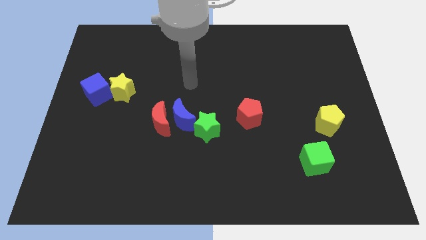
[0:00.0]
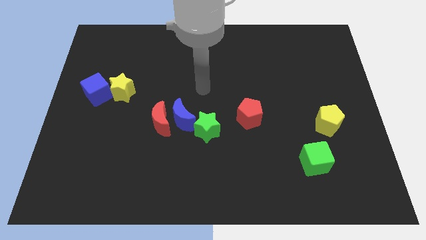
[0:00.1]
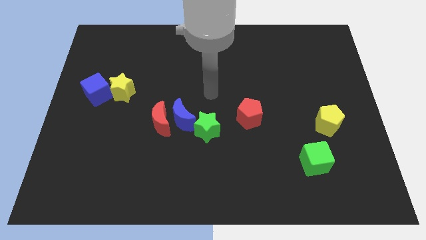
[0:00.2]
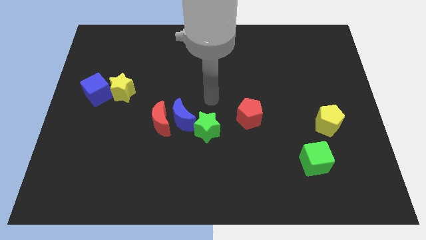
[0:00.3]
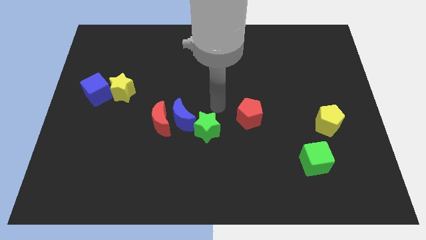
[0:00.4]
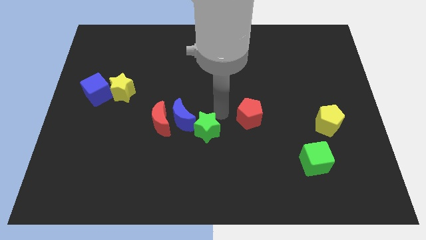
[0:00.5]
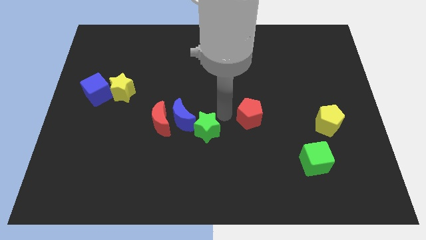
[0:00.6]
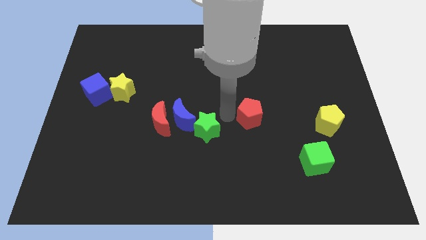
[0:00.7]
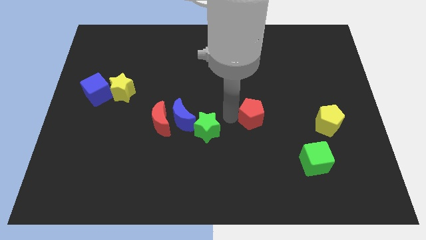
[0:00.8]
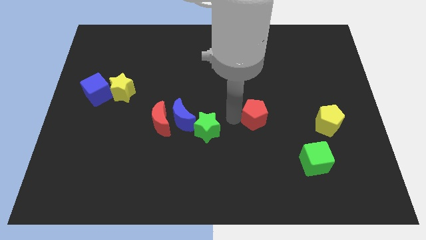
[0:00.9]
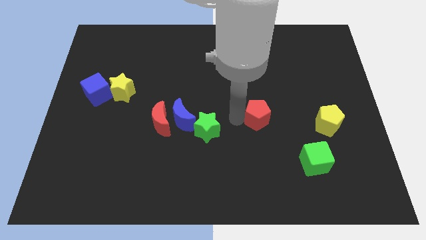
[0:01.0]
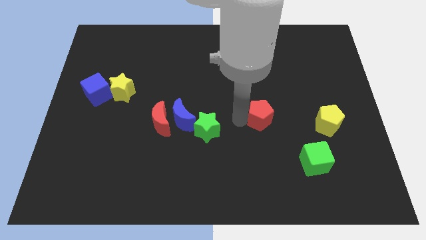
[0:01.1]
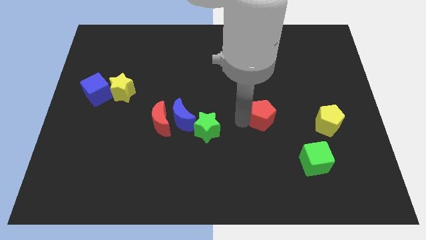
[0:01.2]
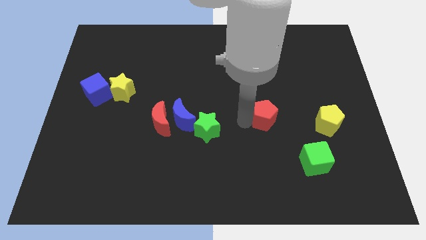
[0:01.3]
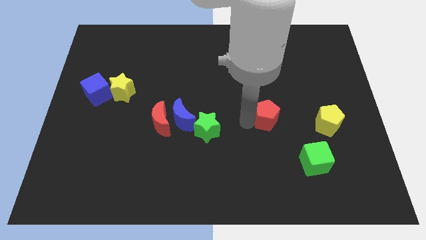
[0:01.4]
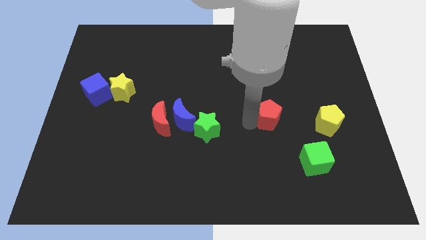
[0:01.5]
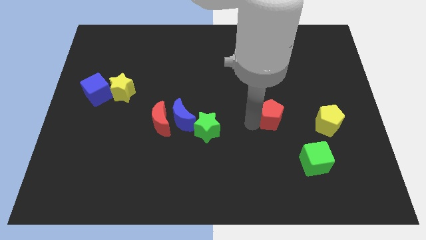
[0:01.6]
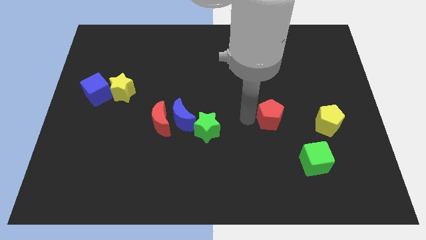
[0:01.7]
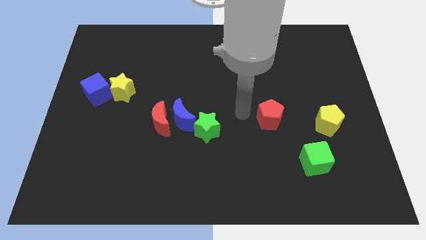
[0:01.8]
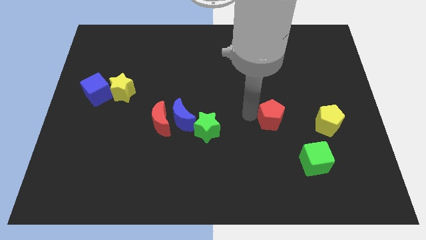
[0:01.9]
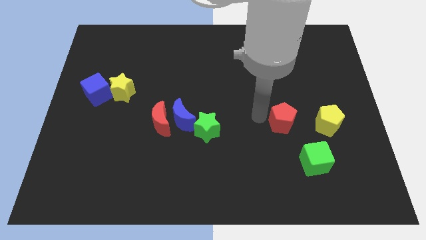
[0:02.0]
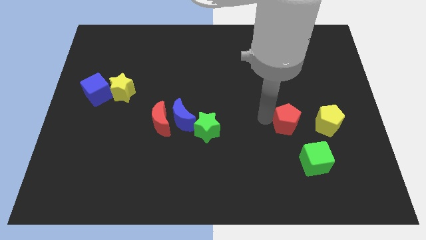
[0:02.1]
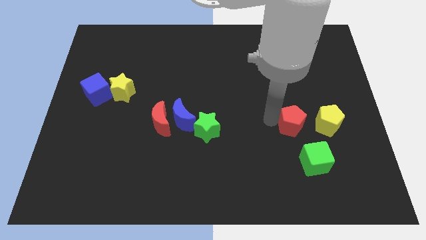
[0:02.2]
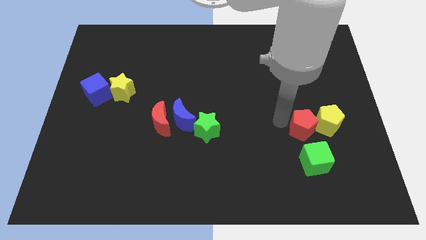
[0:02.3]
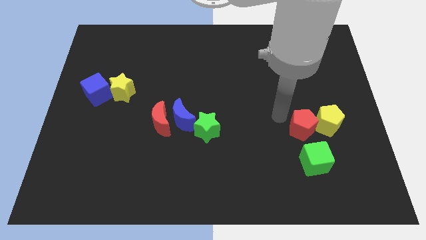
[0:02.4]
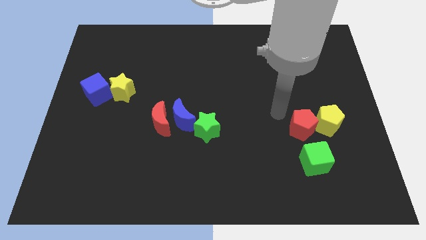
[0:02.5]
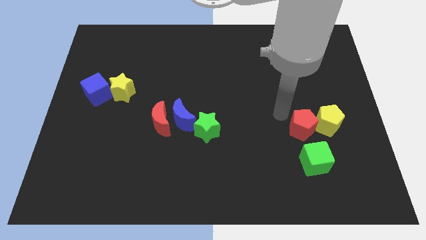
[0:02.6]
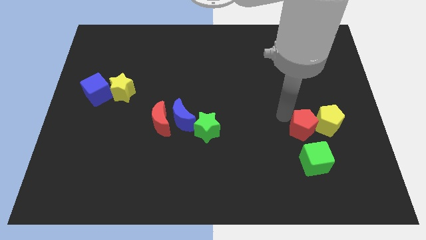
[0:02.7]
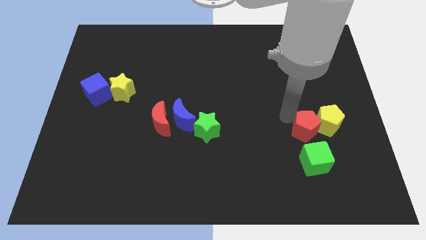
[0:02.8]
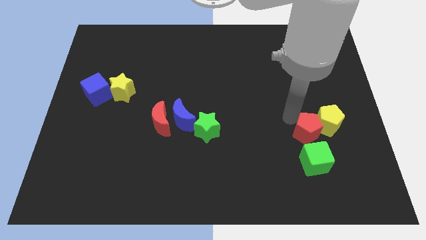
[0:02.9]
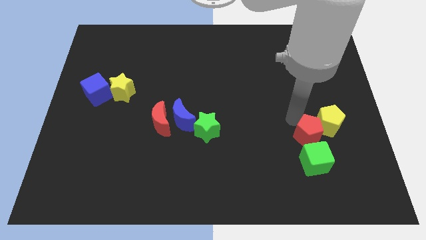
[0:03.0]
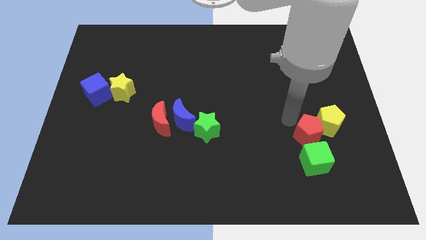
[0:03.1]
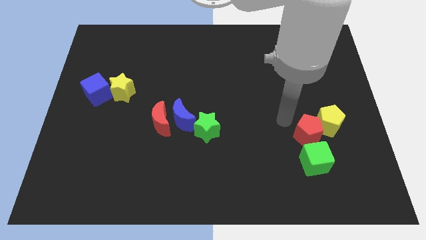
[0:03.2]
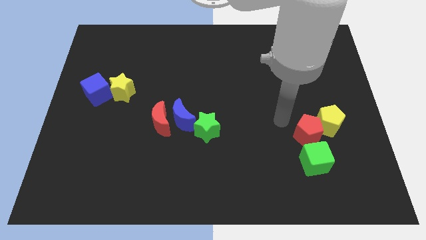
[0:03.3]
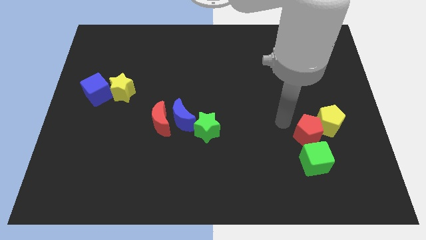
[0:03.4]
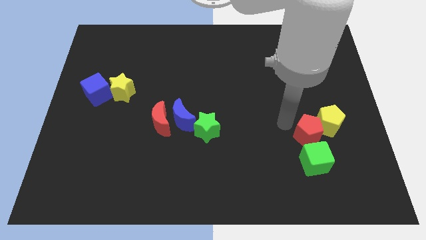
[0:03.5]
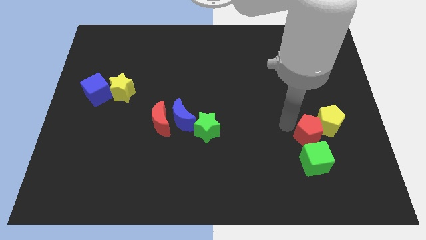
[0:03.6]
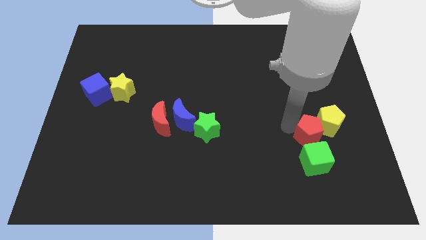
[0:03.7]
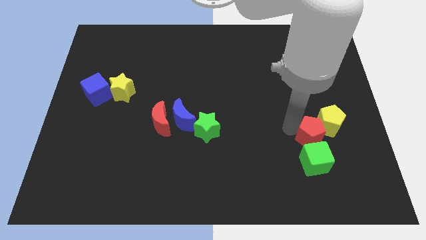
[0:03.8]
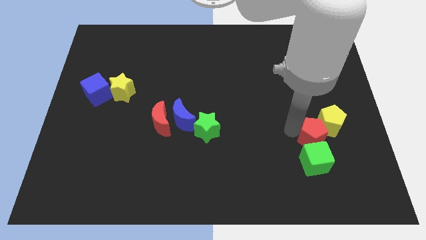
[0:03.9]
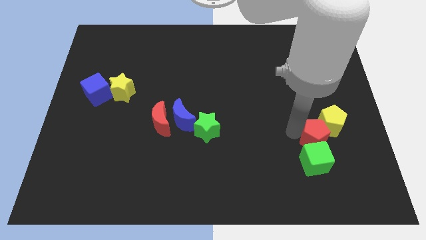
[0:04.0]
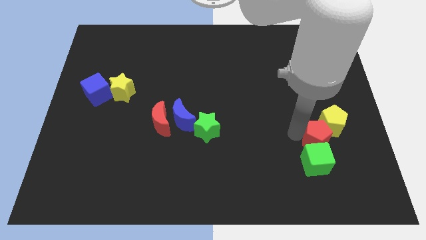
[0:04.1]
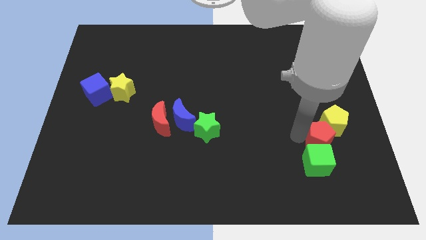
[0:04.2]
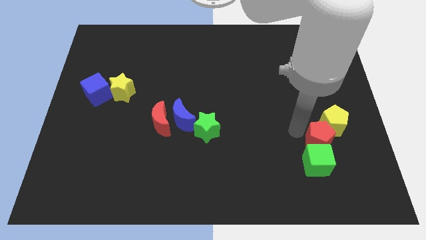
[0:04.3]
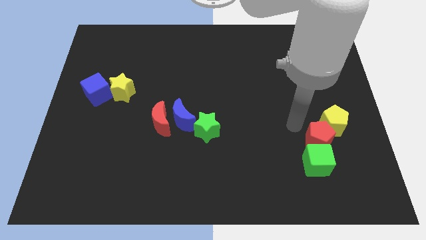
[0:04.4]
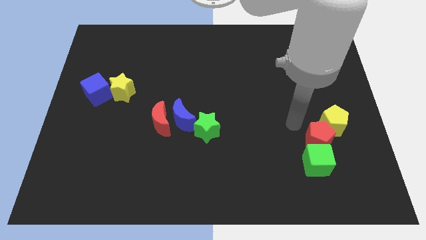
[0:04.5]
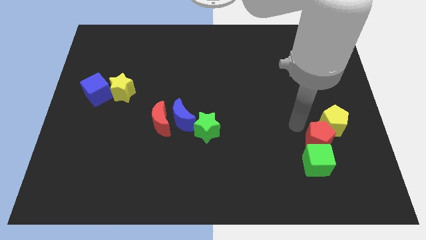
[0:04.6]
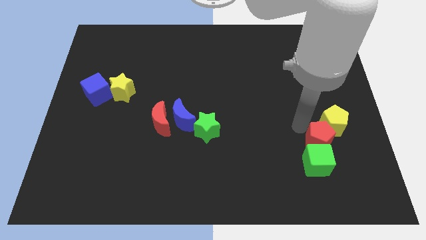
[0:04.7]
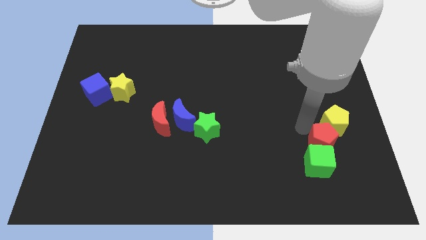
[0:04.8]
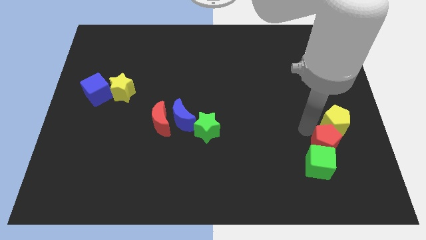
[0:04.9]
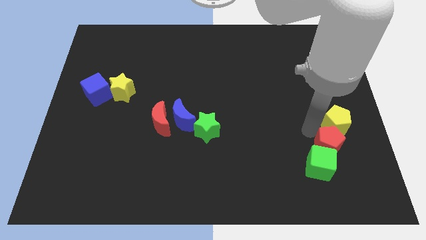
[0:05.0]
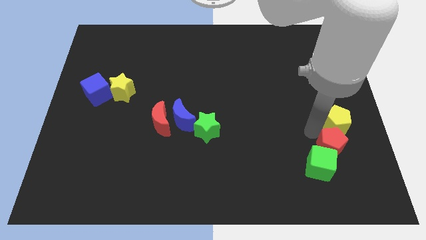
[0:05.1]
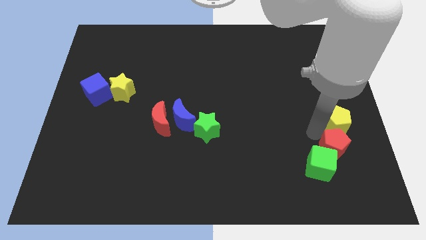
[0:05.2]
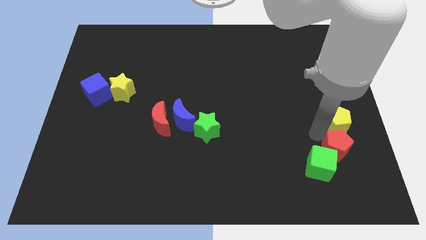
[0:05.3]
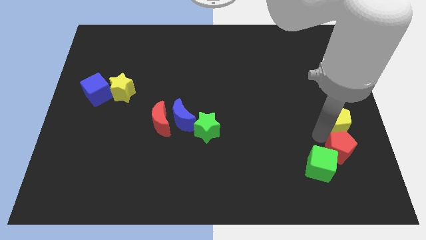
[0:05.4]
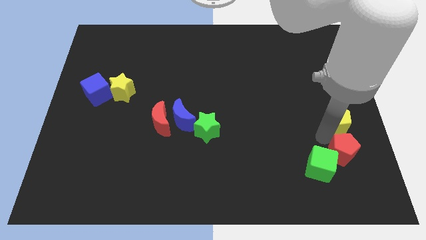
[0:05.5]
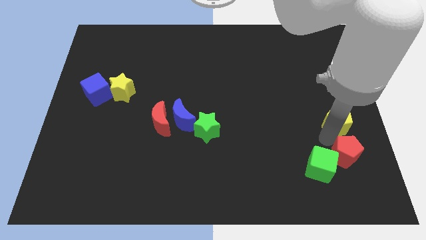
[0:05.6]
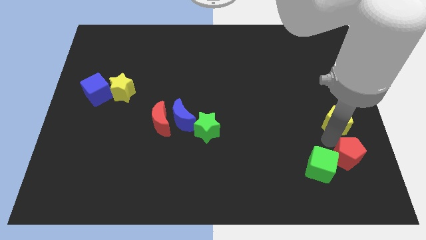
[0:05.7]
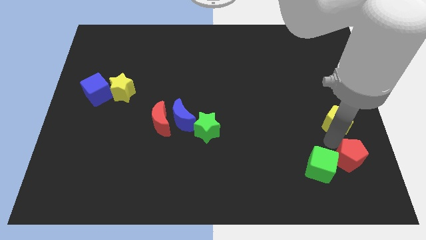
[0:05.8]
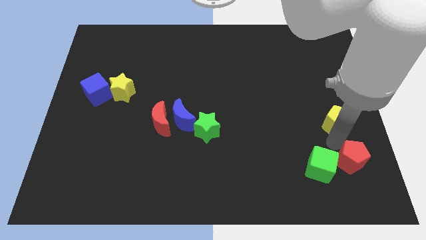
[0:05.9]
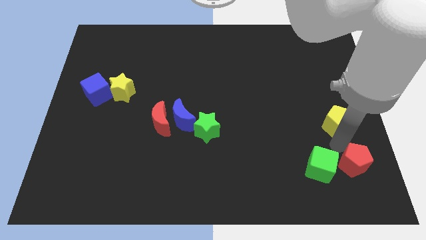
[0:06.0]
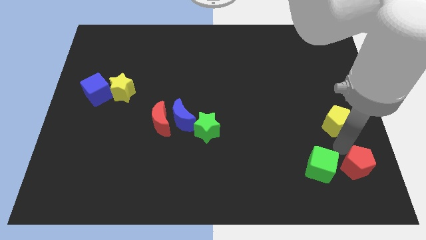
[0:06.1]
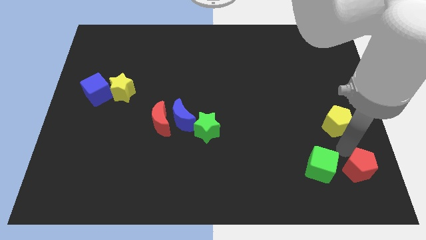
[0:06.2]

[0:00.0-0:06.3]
move the red pentagon to the bottom right corner
